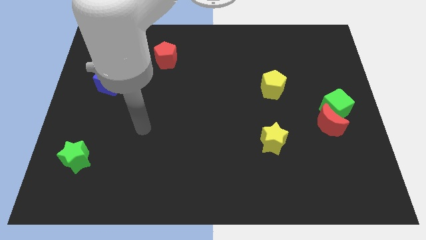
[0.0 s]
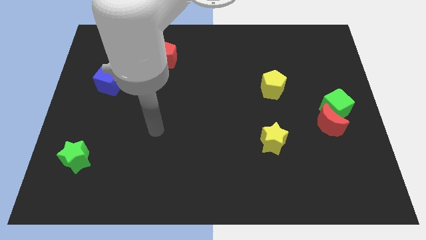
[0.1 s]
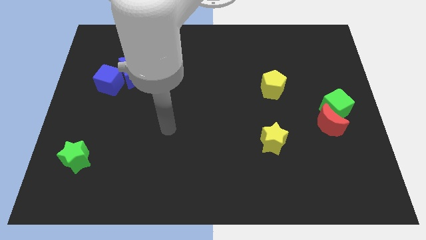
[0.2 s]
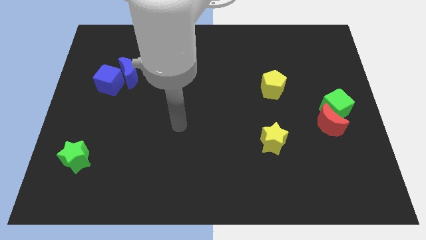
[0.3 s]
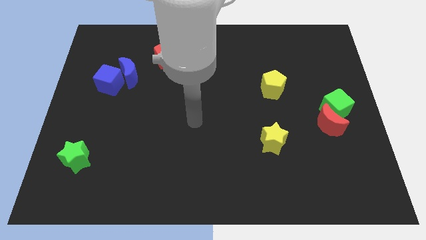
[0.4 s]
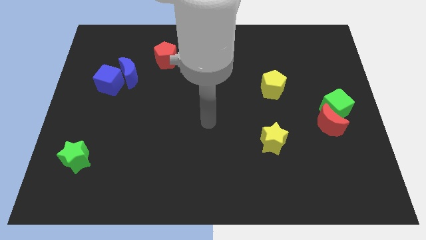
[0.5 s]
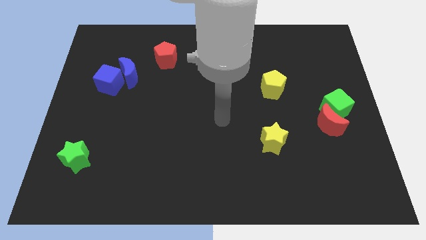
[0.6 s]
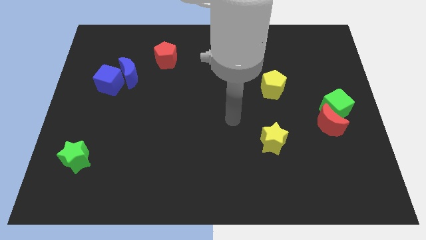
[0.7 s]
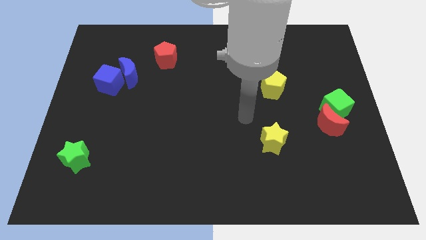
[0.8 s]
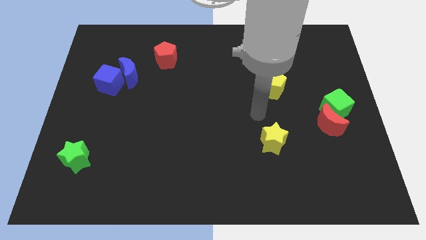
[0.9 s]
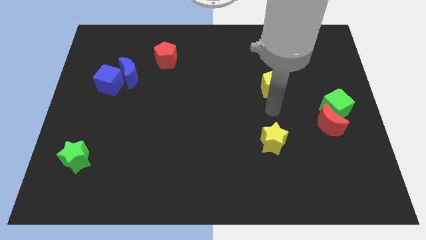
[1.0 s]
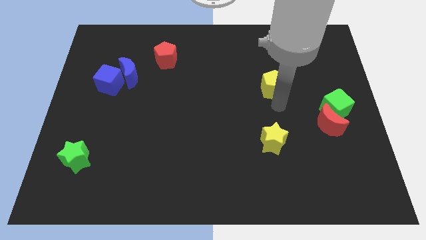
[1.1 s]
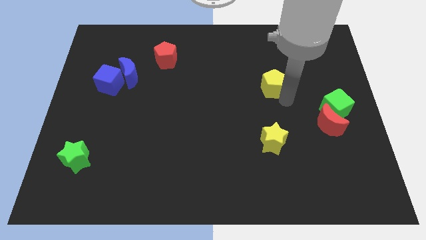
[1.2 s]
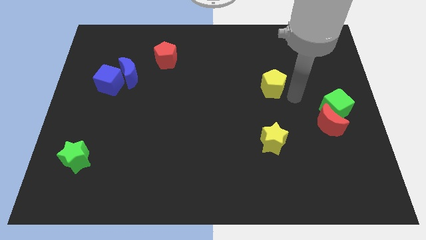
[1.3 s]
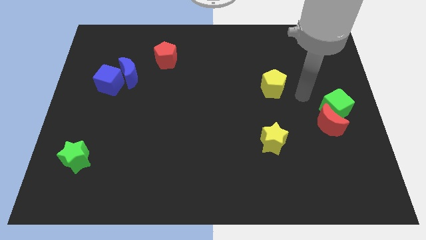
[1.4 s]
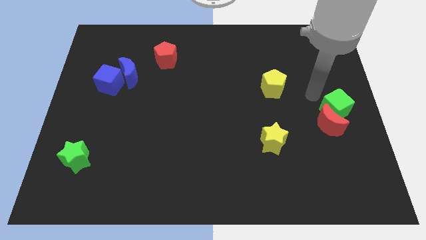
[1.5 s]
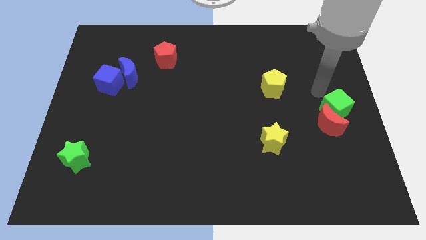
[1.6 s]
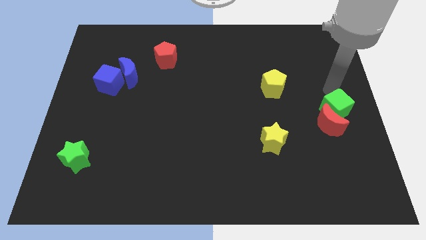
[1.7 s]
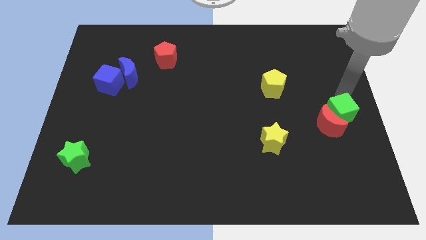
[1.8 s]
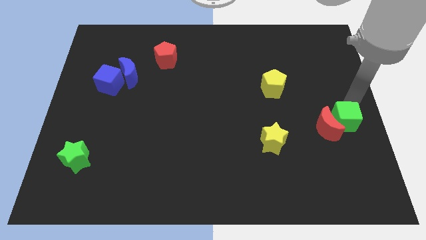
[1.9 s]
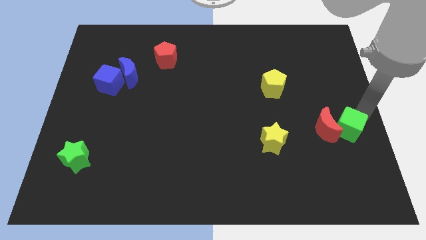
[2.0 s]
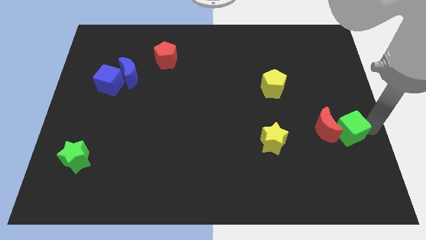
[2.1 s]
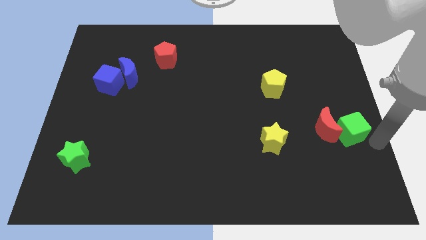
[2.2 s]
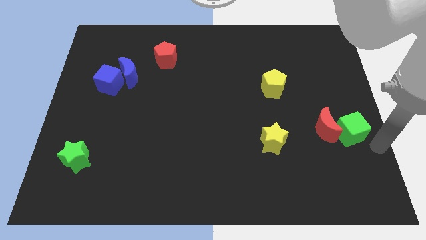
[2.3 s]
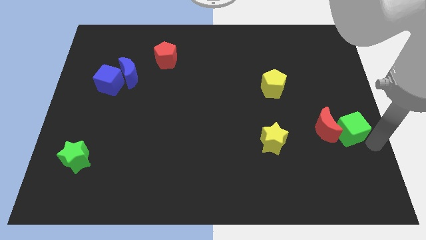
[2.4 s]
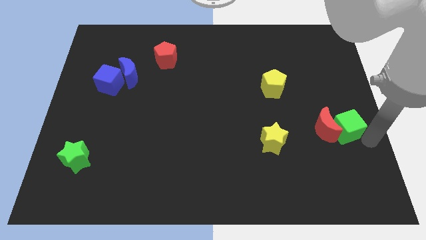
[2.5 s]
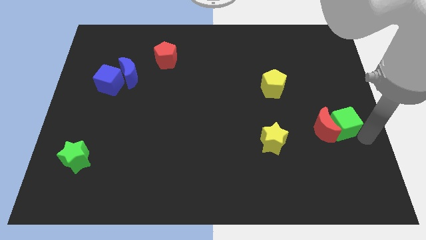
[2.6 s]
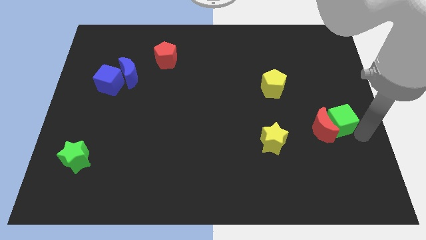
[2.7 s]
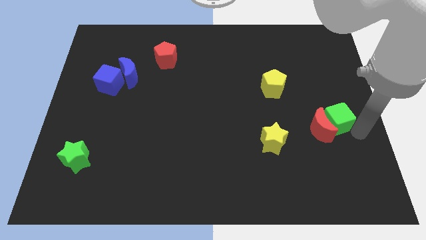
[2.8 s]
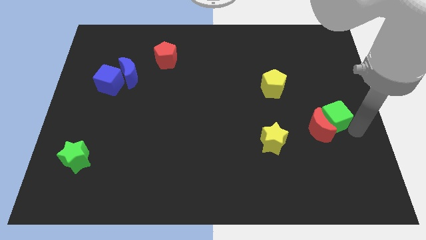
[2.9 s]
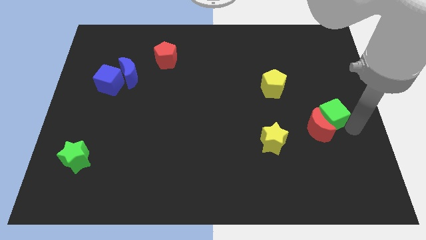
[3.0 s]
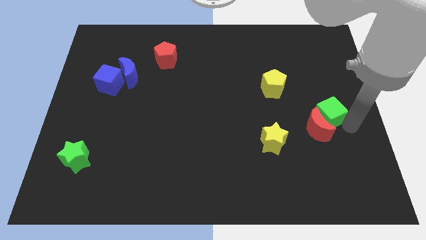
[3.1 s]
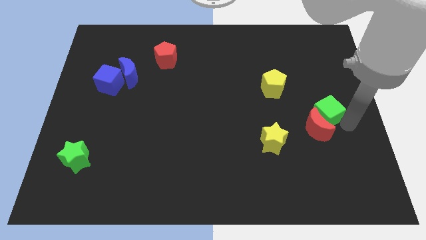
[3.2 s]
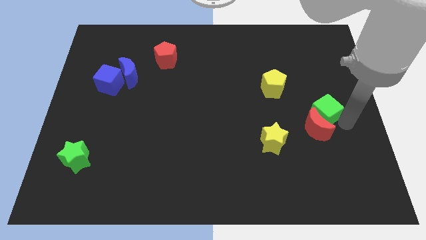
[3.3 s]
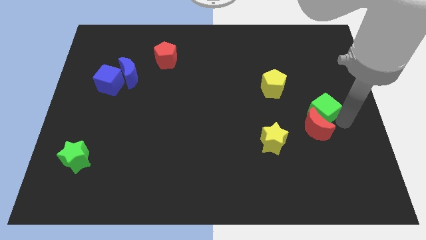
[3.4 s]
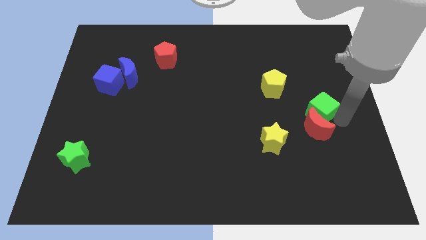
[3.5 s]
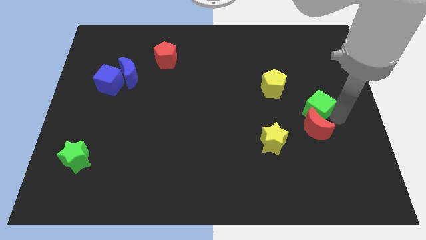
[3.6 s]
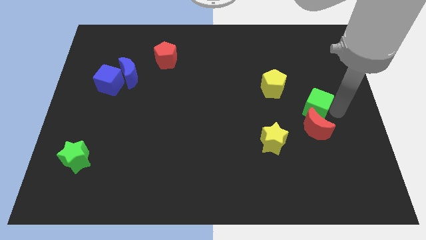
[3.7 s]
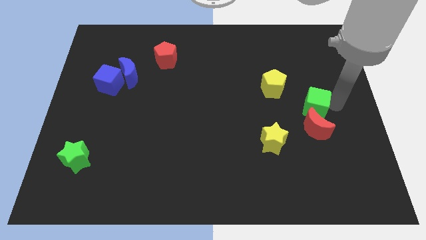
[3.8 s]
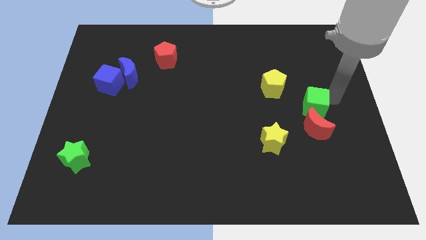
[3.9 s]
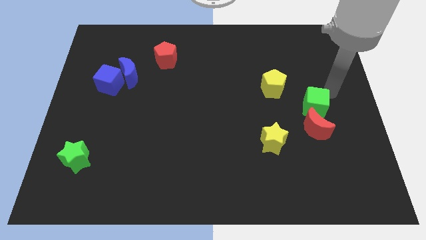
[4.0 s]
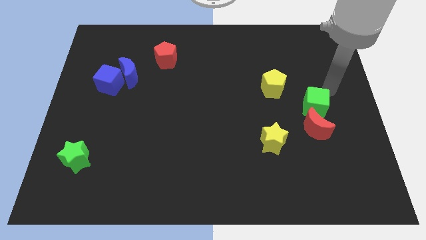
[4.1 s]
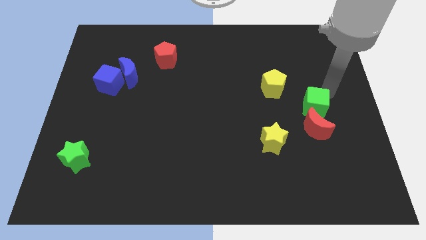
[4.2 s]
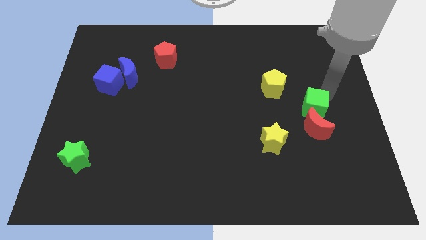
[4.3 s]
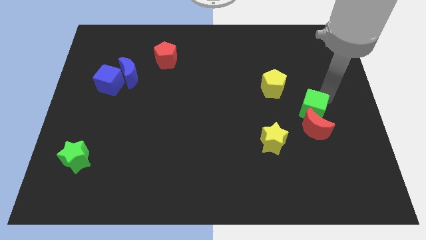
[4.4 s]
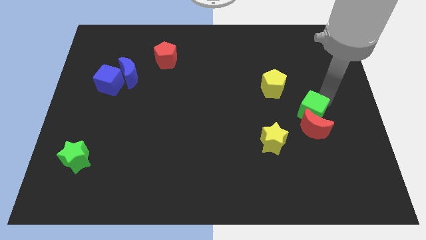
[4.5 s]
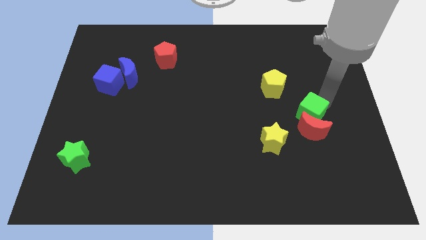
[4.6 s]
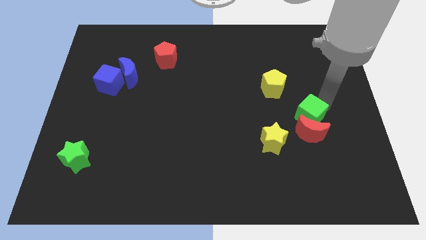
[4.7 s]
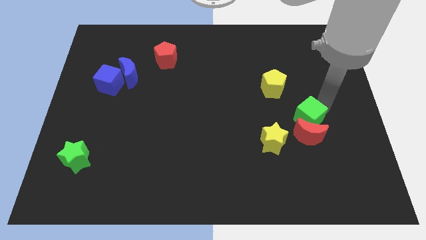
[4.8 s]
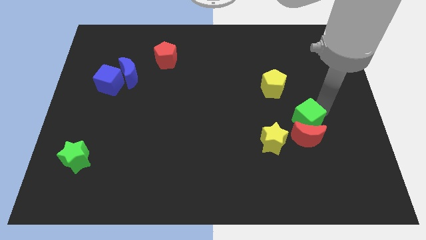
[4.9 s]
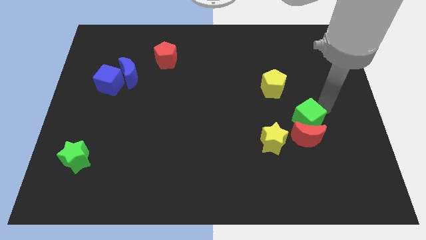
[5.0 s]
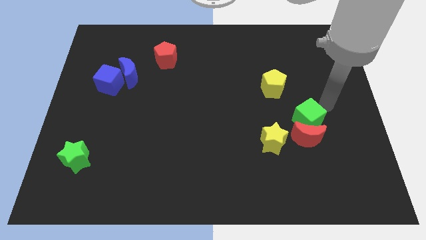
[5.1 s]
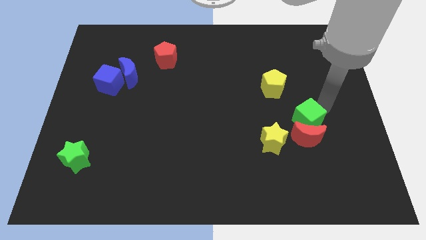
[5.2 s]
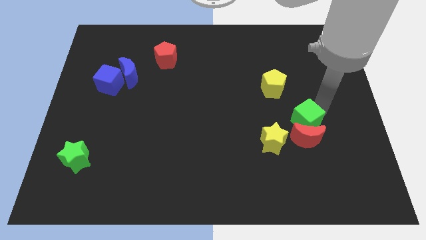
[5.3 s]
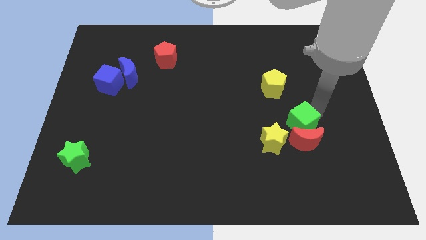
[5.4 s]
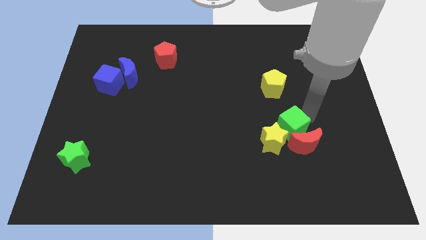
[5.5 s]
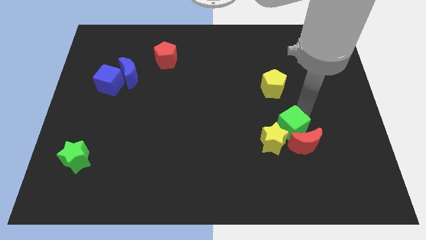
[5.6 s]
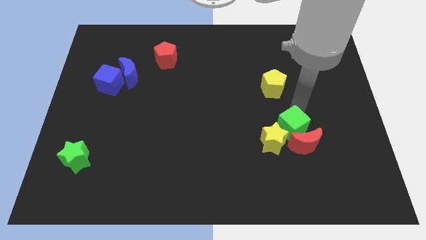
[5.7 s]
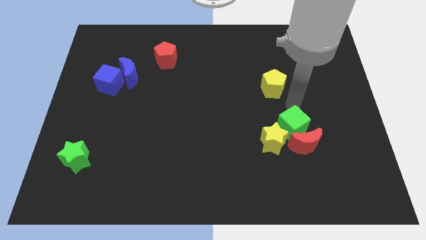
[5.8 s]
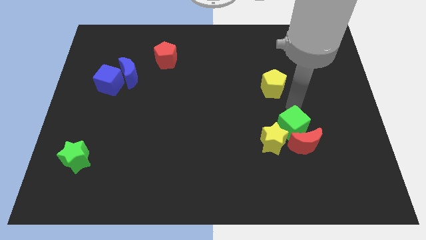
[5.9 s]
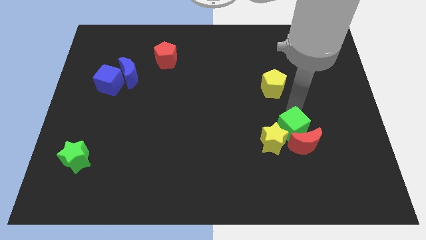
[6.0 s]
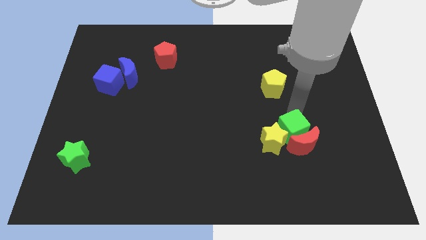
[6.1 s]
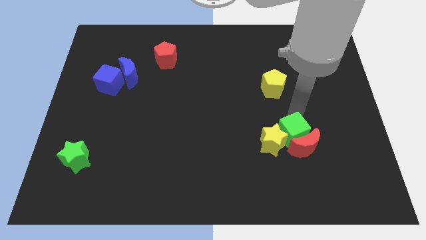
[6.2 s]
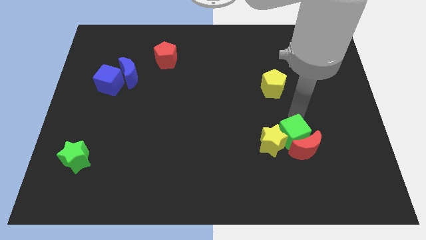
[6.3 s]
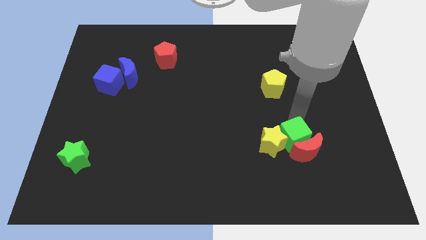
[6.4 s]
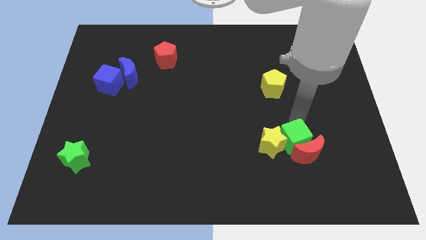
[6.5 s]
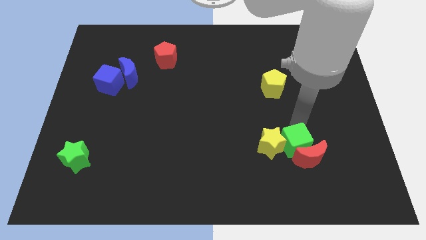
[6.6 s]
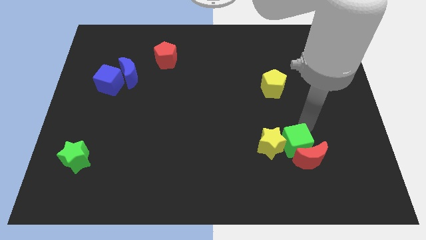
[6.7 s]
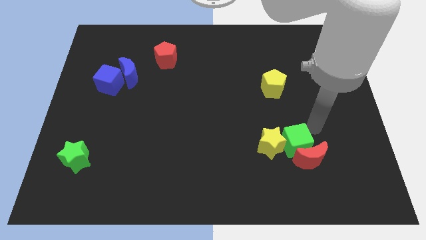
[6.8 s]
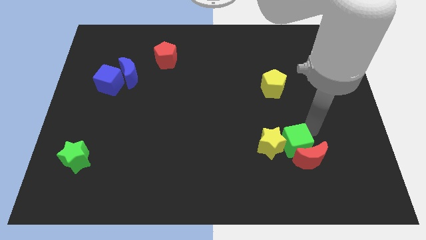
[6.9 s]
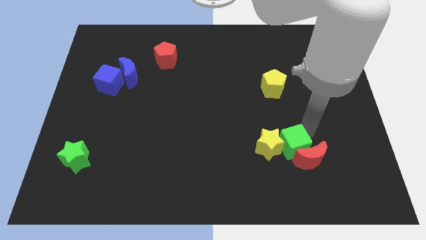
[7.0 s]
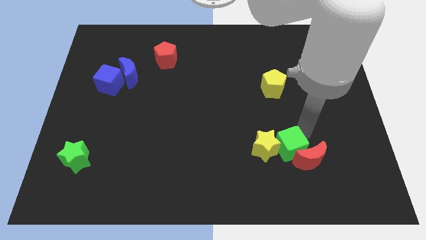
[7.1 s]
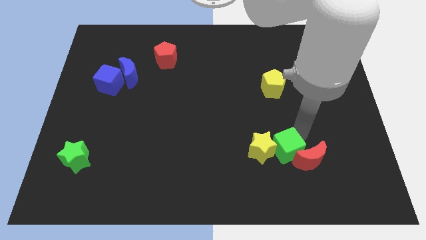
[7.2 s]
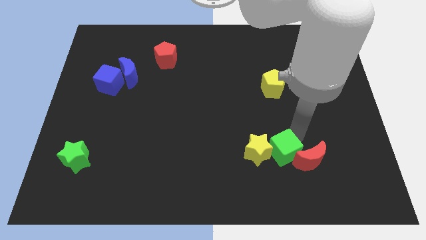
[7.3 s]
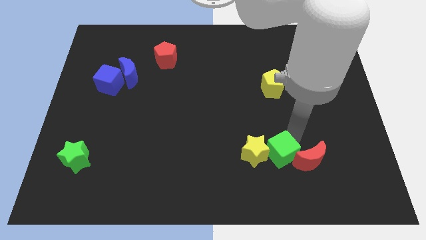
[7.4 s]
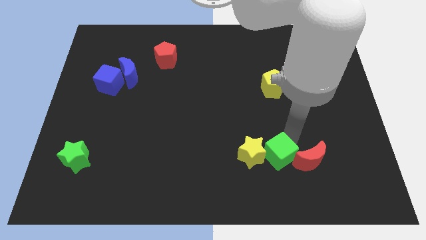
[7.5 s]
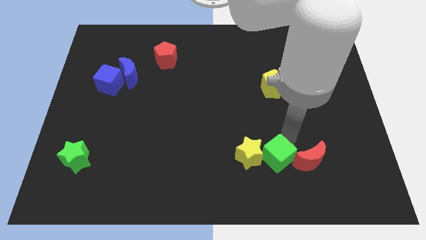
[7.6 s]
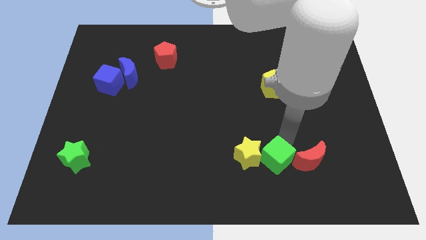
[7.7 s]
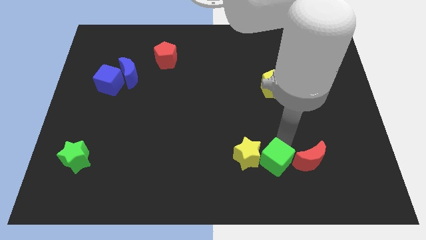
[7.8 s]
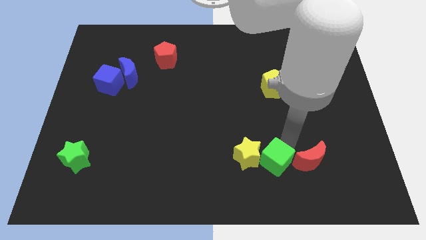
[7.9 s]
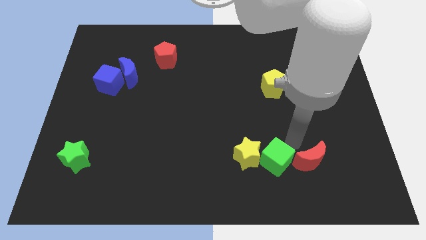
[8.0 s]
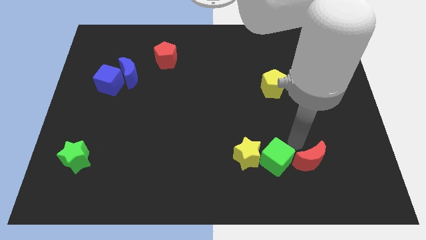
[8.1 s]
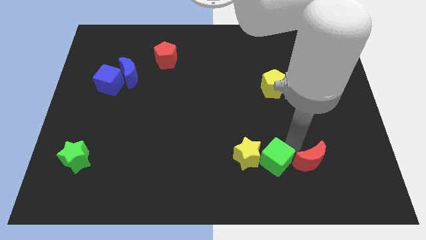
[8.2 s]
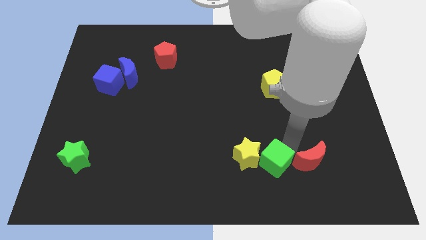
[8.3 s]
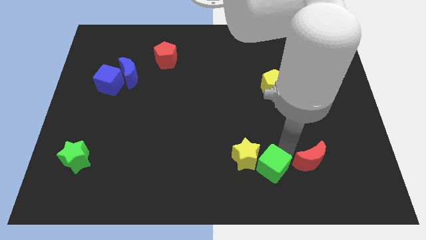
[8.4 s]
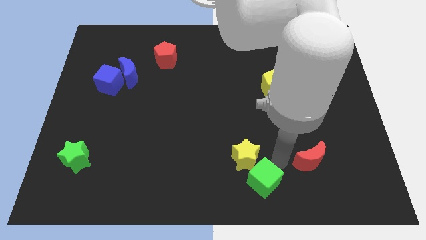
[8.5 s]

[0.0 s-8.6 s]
move the green cube to the bottom
